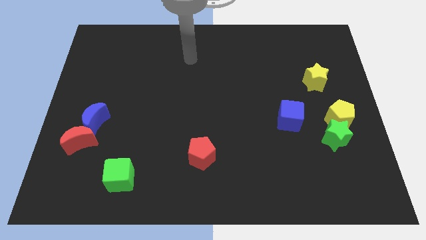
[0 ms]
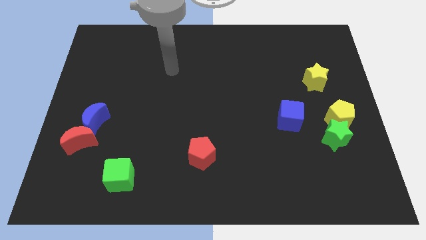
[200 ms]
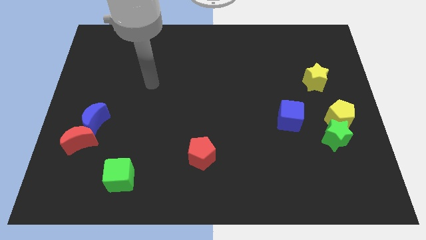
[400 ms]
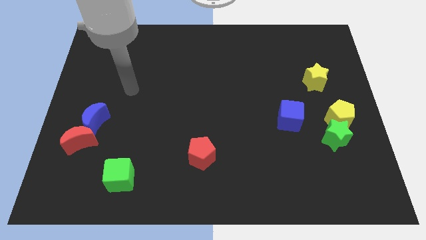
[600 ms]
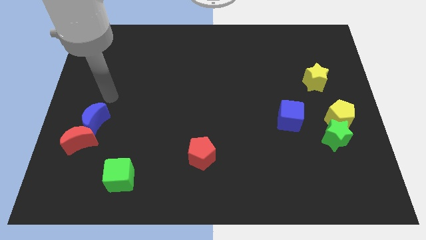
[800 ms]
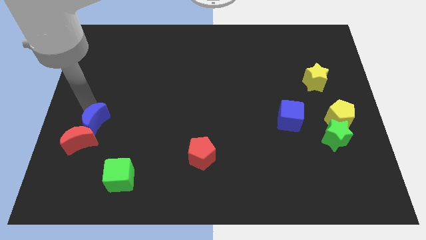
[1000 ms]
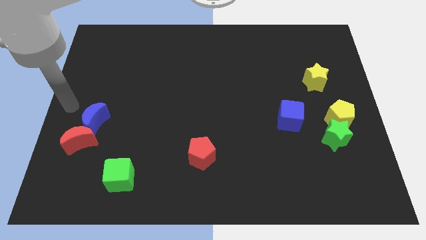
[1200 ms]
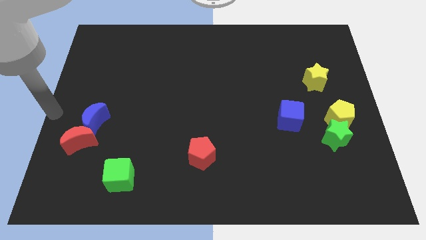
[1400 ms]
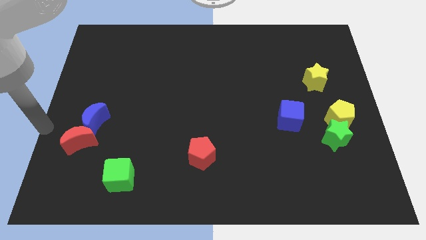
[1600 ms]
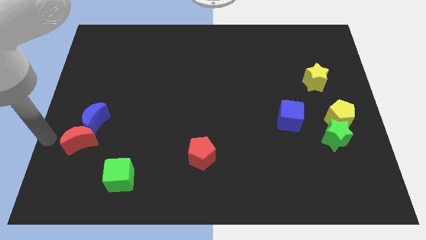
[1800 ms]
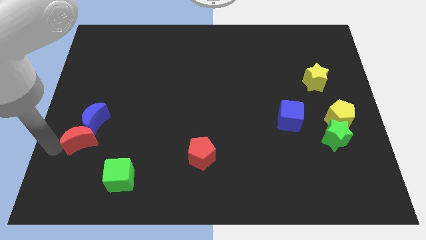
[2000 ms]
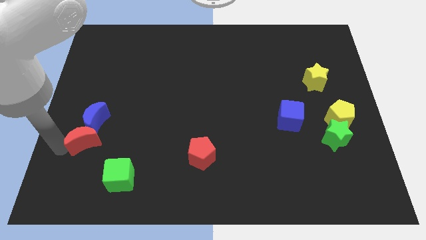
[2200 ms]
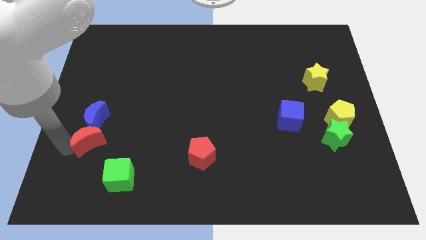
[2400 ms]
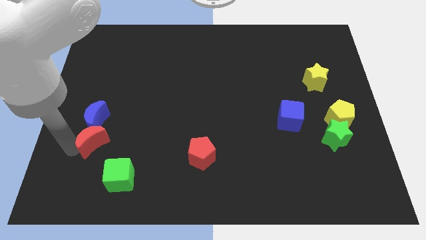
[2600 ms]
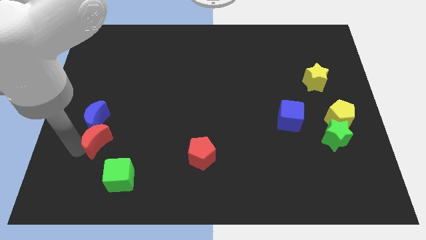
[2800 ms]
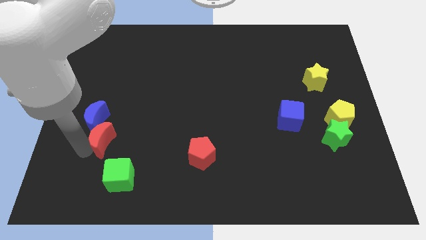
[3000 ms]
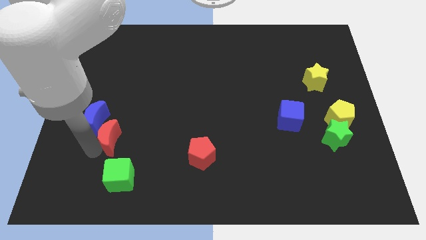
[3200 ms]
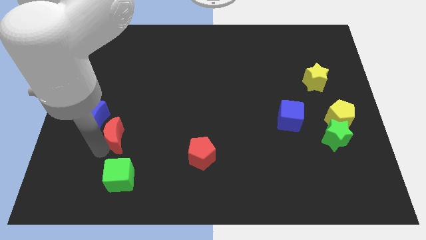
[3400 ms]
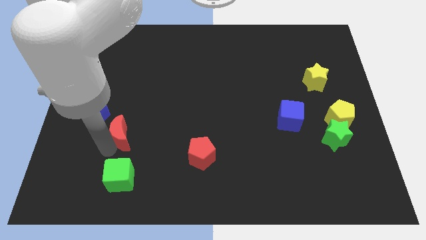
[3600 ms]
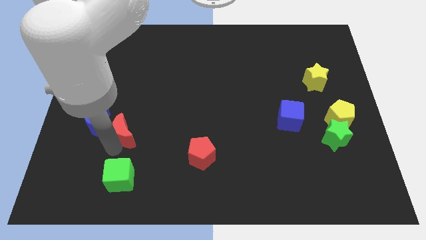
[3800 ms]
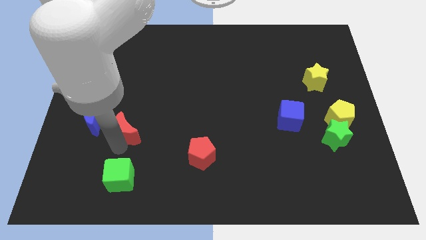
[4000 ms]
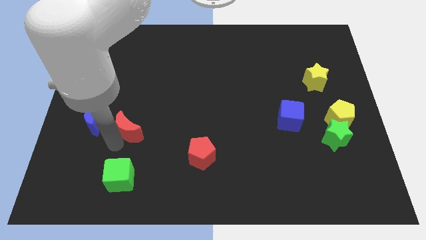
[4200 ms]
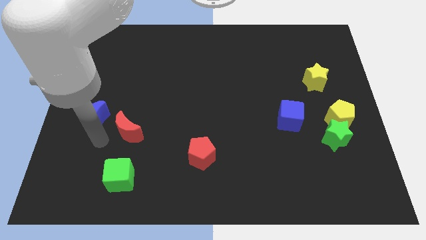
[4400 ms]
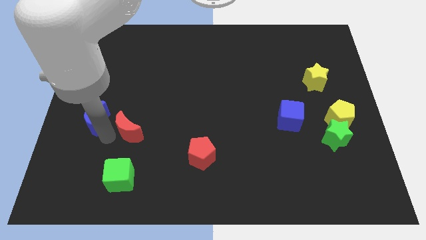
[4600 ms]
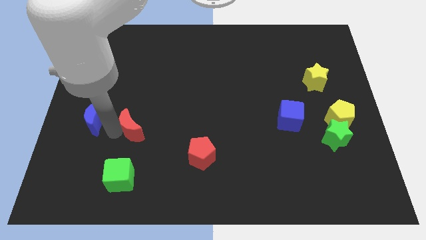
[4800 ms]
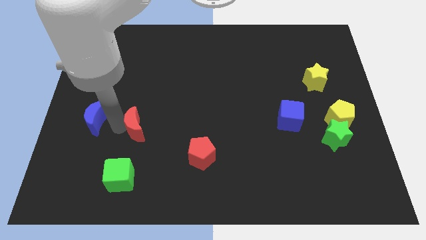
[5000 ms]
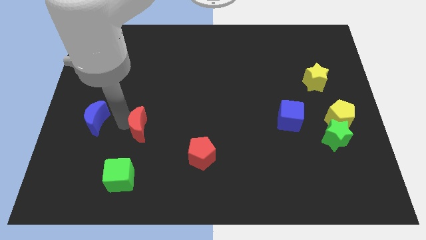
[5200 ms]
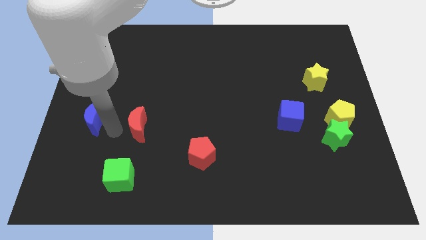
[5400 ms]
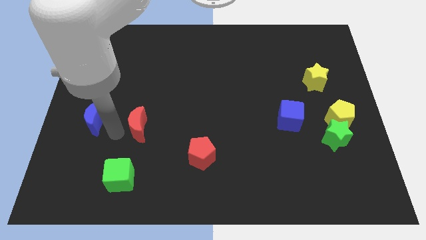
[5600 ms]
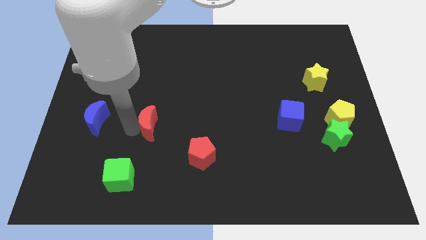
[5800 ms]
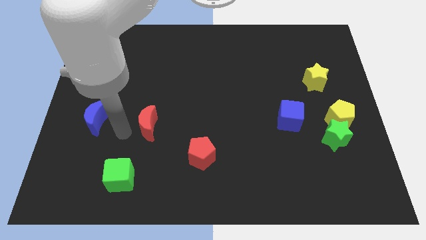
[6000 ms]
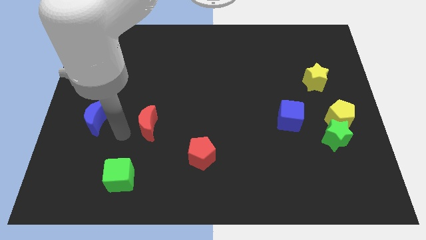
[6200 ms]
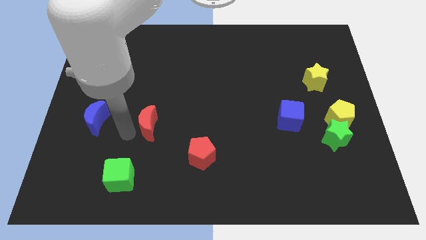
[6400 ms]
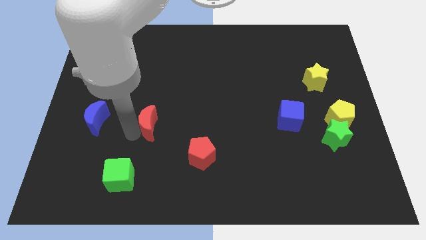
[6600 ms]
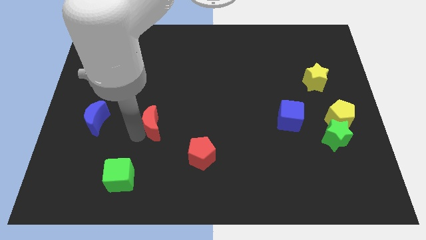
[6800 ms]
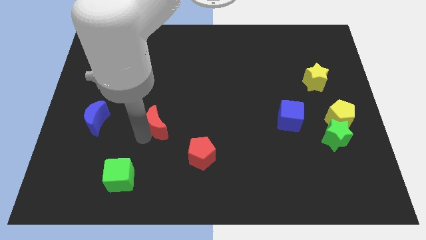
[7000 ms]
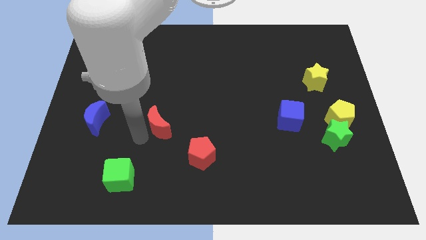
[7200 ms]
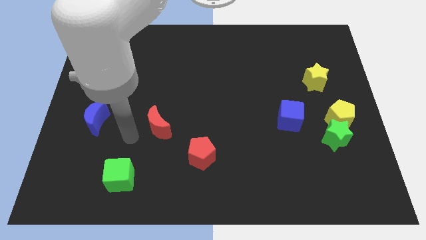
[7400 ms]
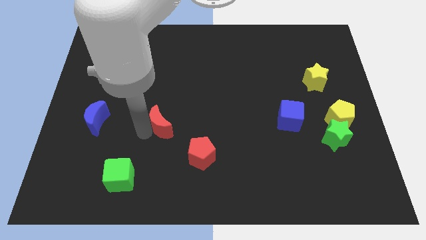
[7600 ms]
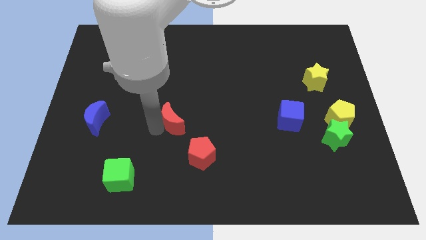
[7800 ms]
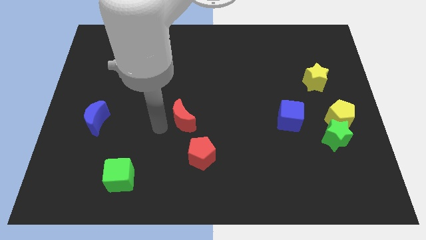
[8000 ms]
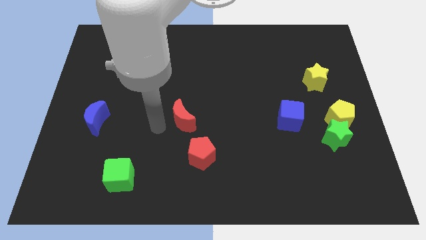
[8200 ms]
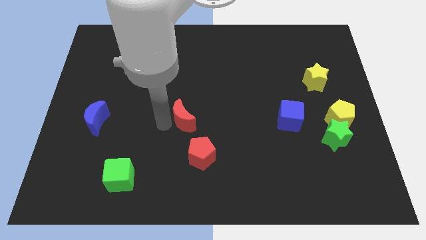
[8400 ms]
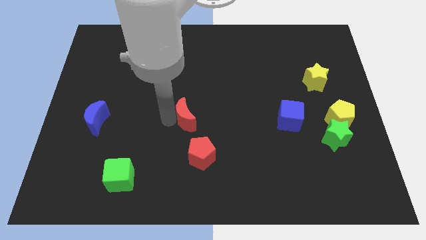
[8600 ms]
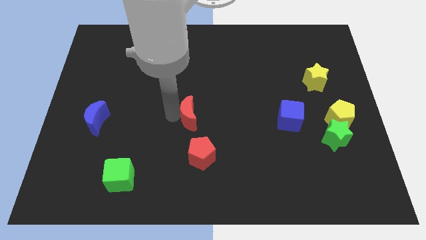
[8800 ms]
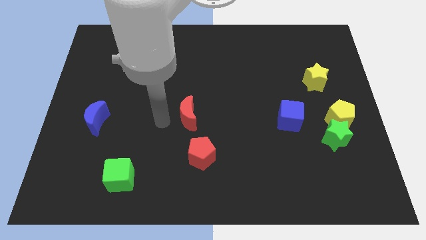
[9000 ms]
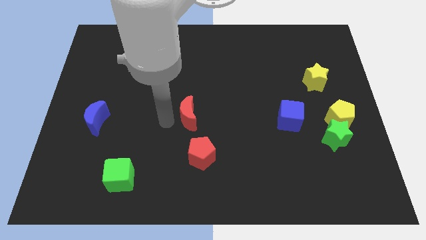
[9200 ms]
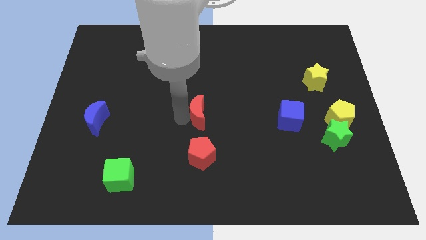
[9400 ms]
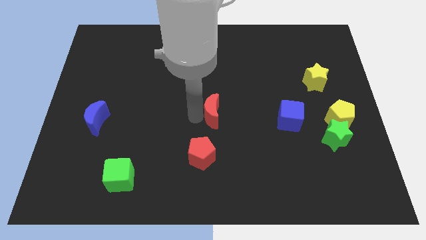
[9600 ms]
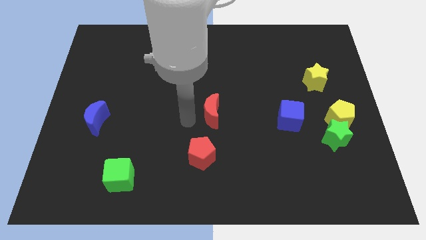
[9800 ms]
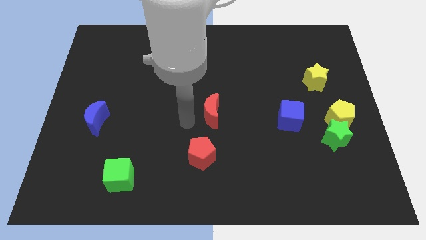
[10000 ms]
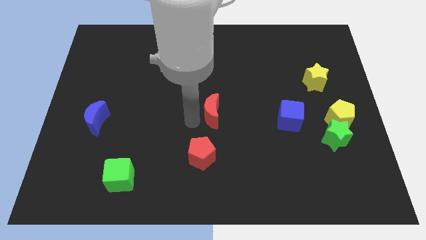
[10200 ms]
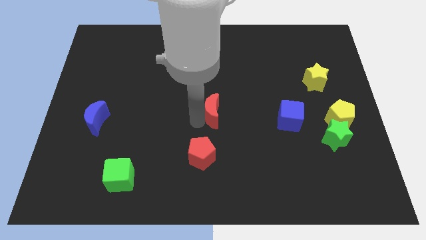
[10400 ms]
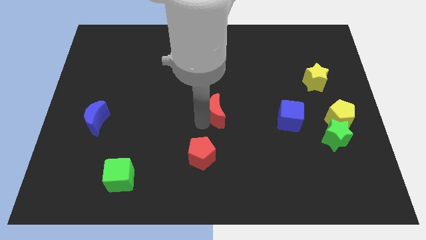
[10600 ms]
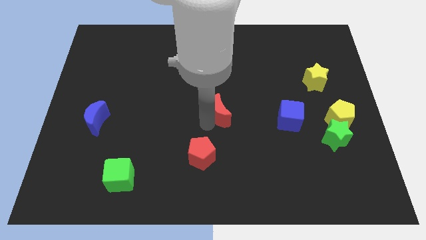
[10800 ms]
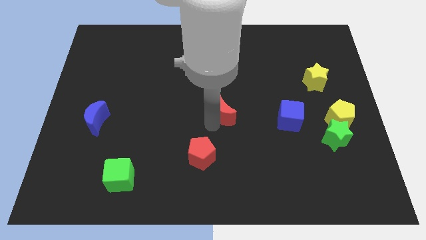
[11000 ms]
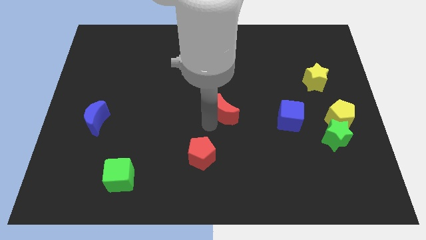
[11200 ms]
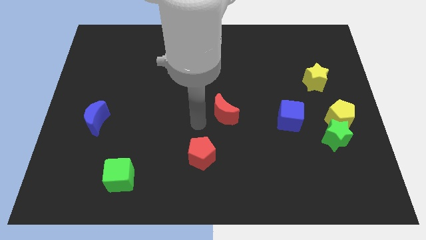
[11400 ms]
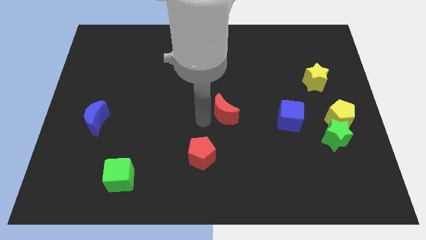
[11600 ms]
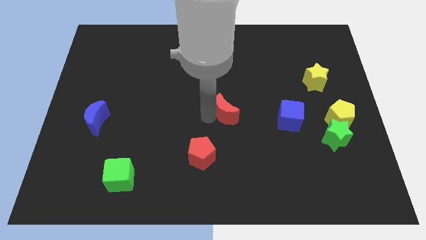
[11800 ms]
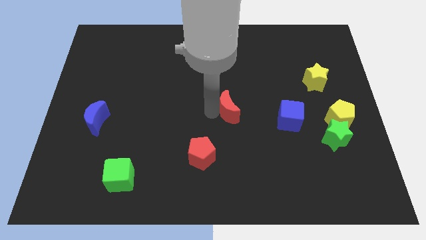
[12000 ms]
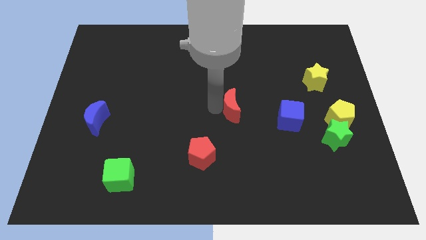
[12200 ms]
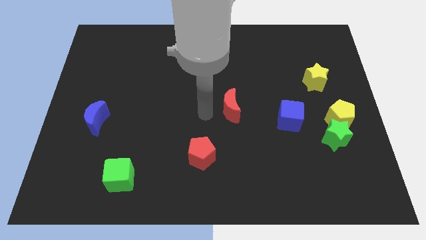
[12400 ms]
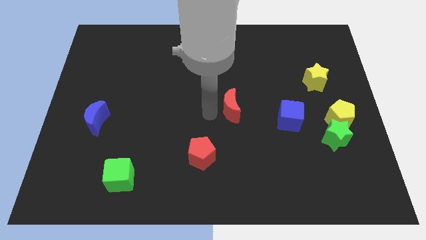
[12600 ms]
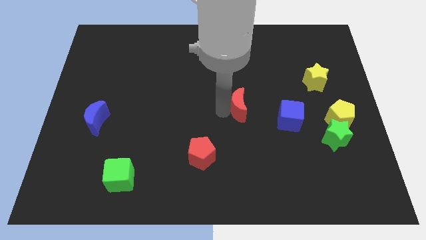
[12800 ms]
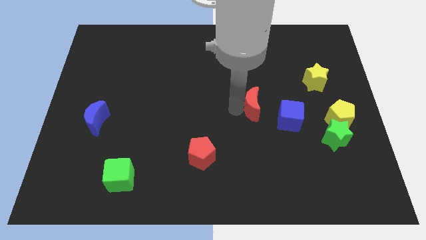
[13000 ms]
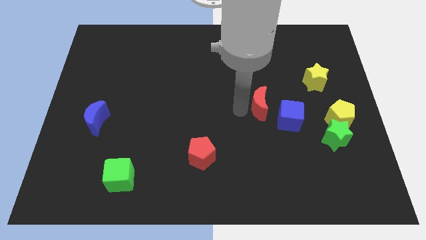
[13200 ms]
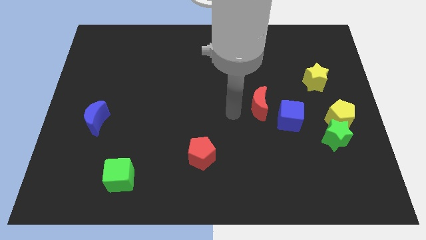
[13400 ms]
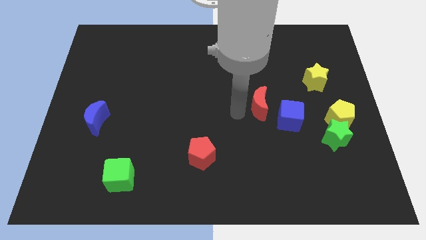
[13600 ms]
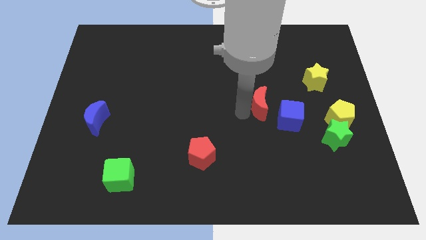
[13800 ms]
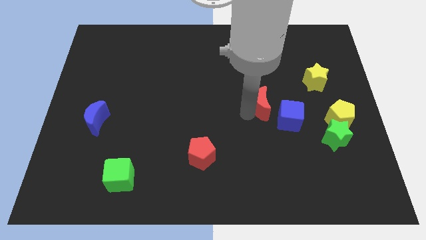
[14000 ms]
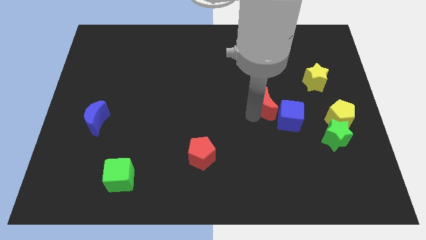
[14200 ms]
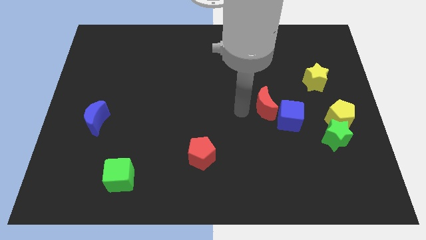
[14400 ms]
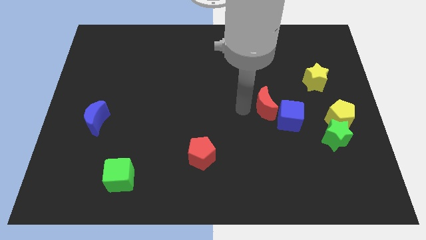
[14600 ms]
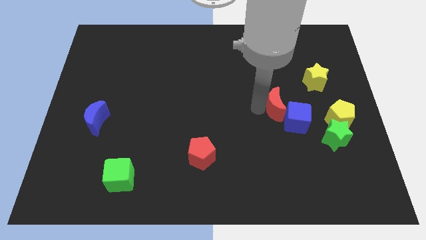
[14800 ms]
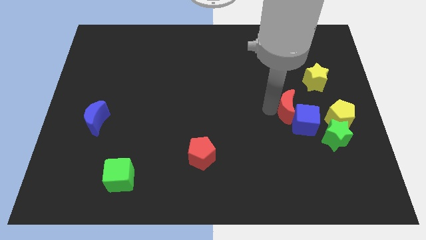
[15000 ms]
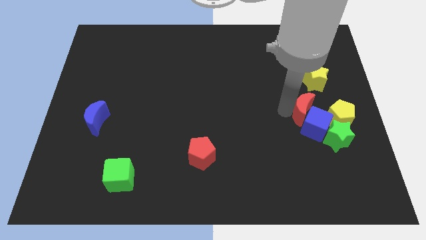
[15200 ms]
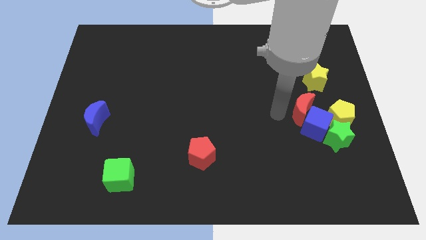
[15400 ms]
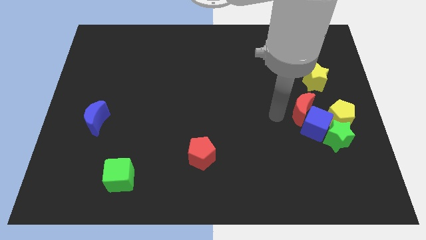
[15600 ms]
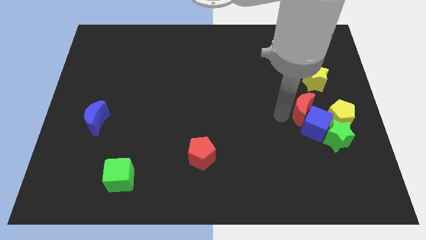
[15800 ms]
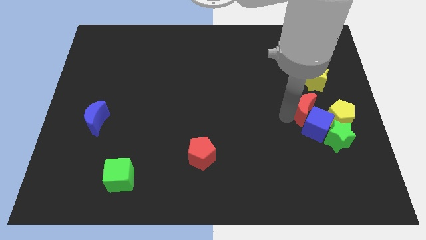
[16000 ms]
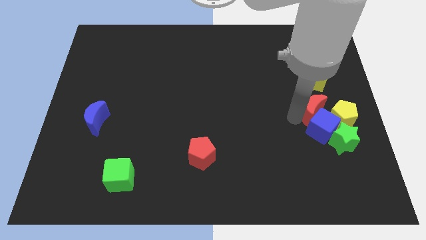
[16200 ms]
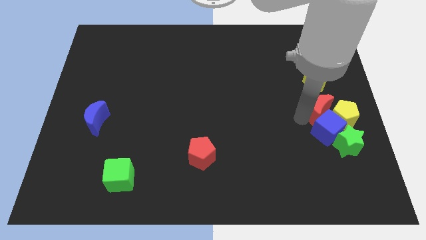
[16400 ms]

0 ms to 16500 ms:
move the red moon to the yellow pentagon
